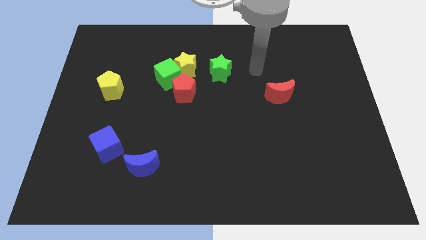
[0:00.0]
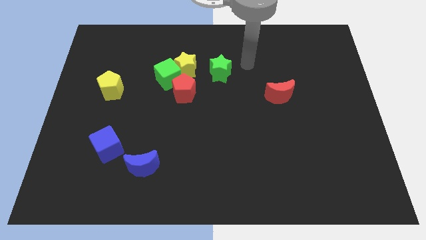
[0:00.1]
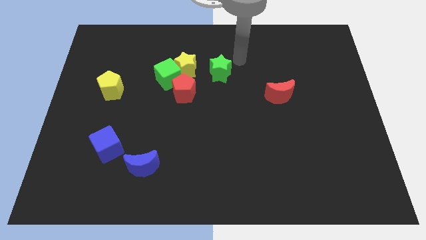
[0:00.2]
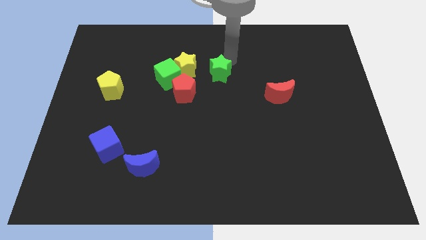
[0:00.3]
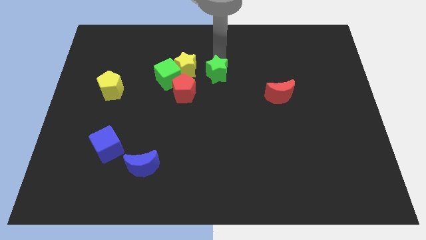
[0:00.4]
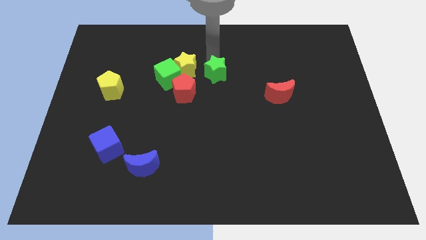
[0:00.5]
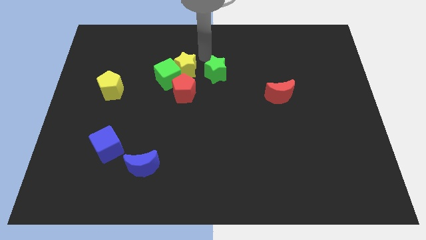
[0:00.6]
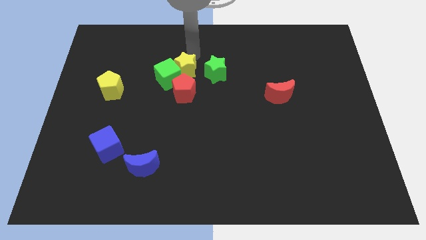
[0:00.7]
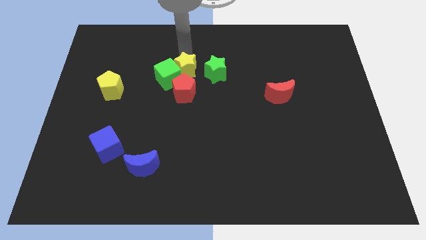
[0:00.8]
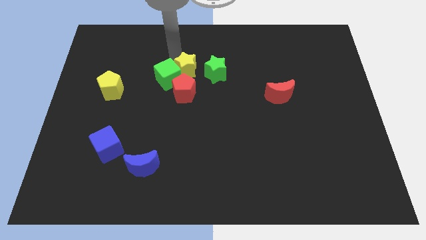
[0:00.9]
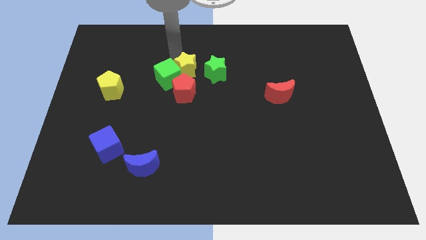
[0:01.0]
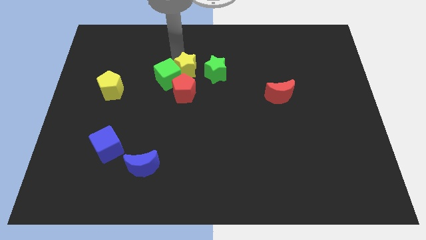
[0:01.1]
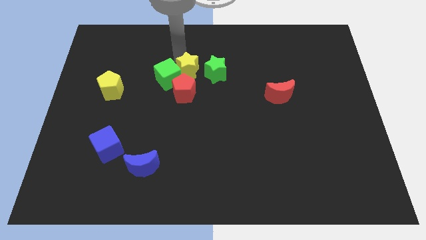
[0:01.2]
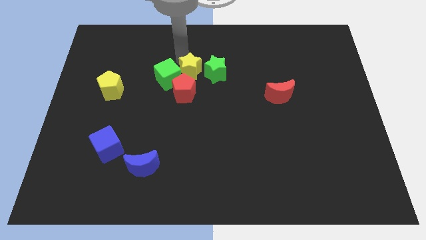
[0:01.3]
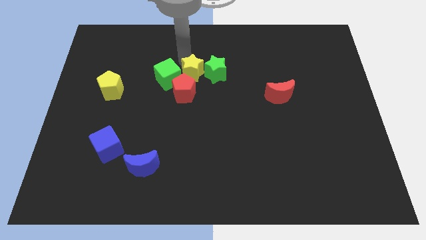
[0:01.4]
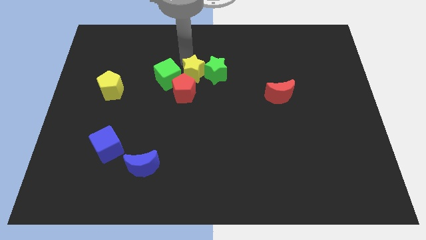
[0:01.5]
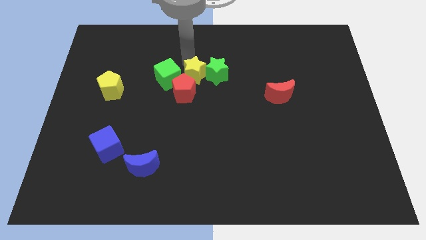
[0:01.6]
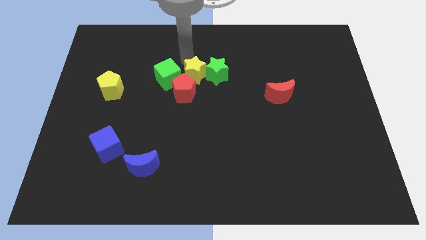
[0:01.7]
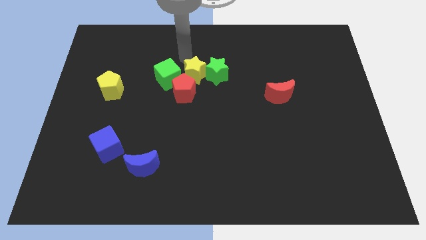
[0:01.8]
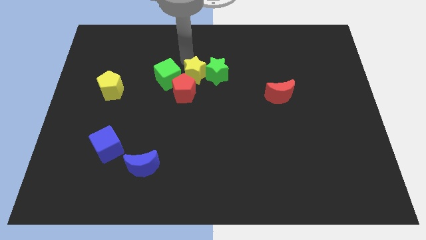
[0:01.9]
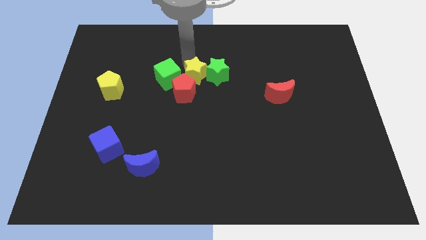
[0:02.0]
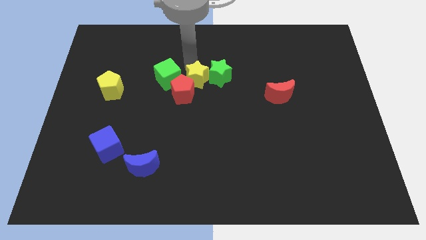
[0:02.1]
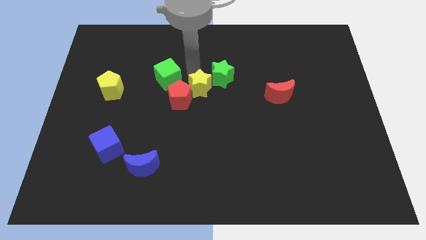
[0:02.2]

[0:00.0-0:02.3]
slightly slide the yellow star down and right diagonally

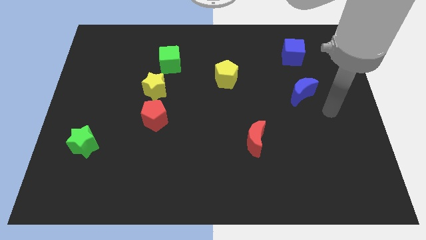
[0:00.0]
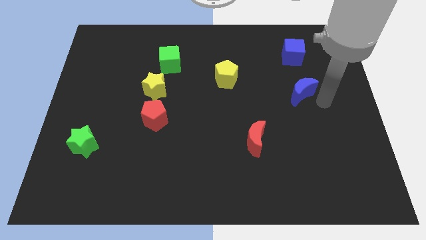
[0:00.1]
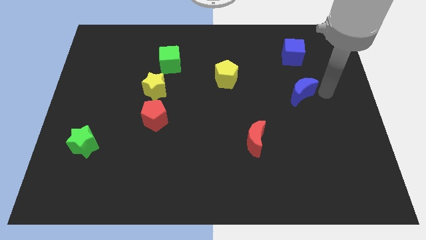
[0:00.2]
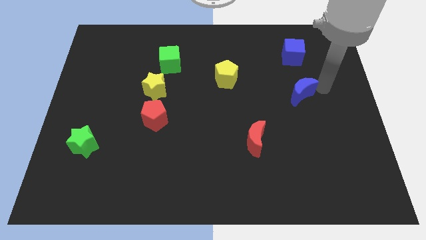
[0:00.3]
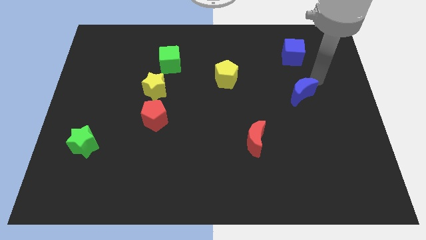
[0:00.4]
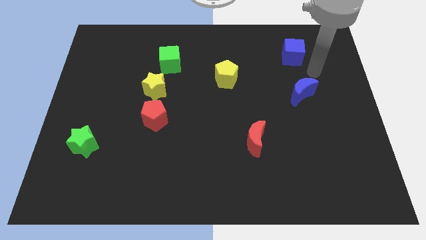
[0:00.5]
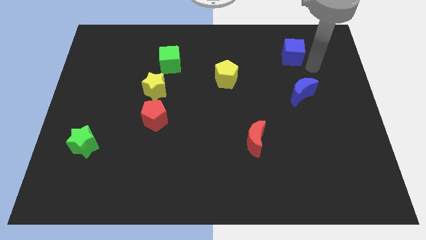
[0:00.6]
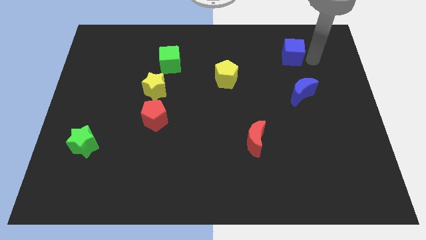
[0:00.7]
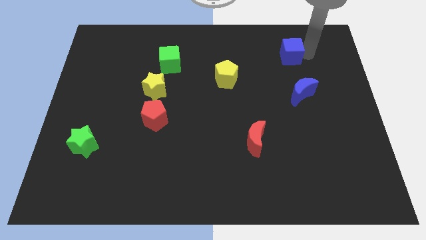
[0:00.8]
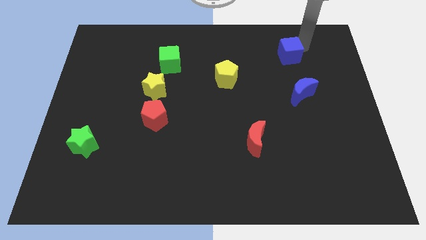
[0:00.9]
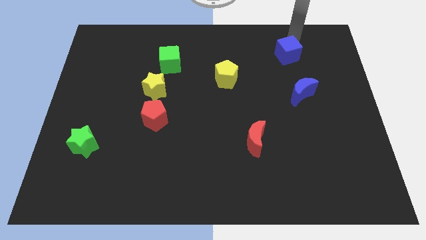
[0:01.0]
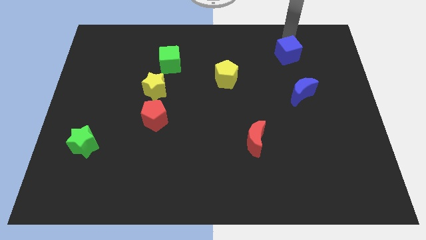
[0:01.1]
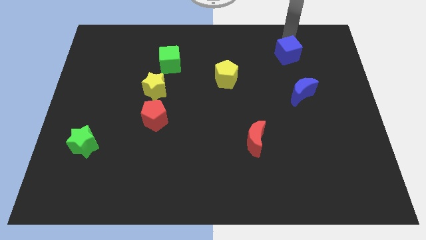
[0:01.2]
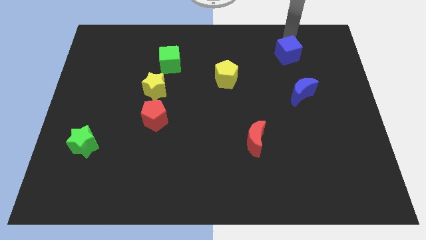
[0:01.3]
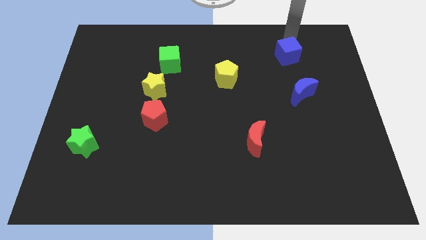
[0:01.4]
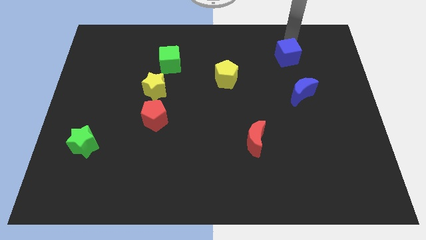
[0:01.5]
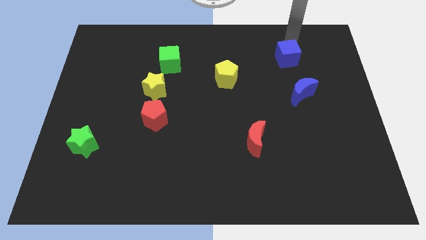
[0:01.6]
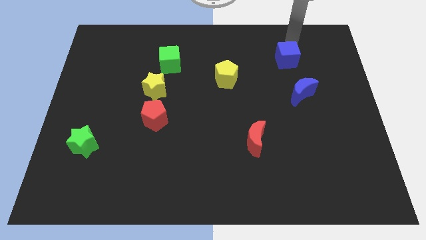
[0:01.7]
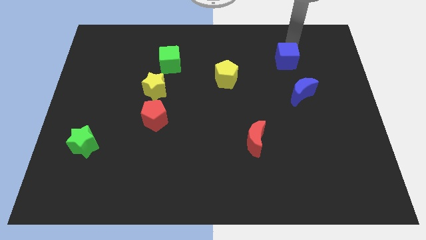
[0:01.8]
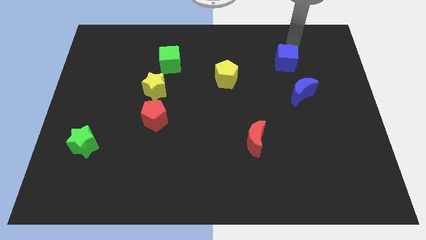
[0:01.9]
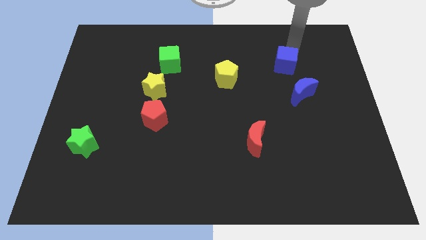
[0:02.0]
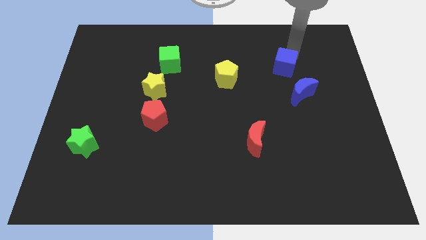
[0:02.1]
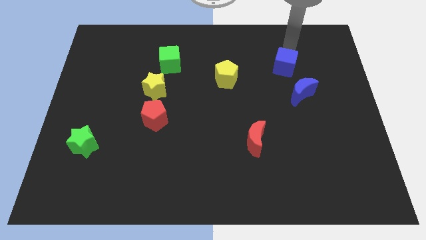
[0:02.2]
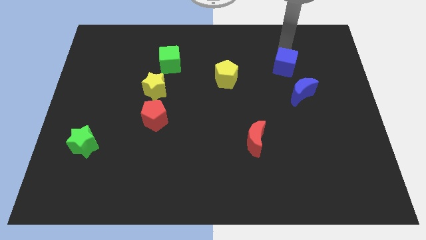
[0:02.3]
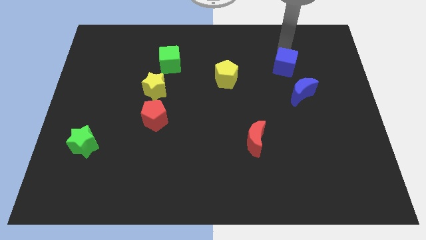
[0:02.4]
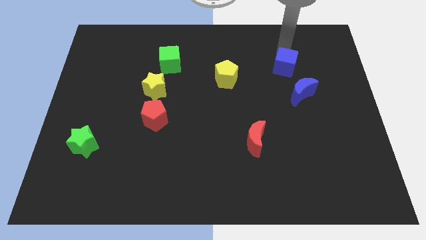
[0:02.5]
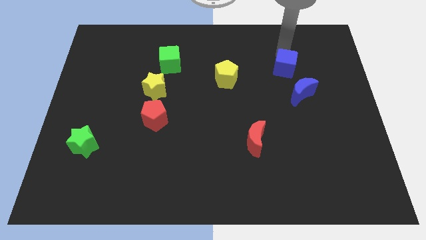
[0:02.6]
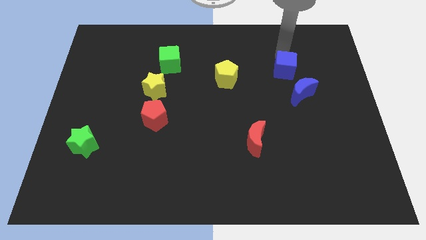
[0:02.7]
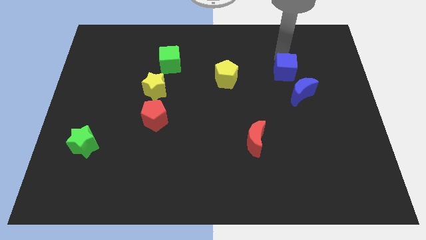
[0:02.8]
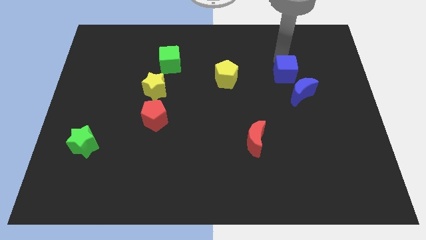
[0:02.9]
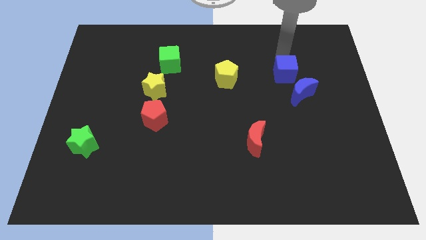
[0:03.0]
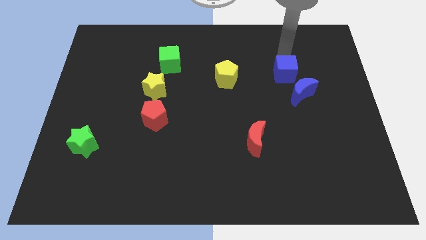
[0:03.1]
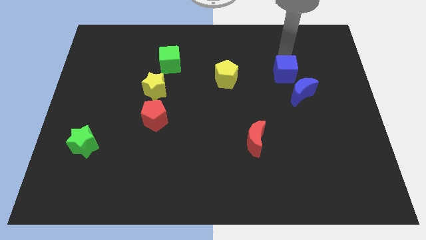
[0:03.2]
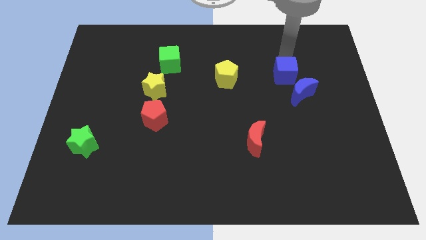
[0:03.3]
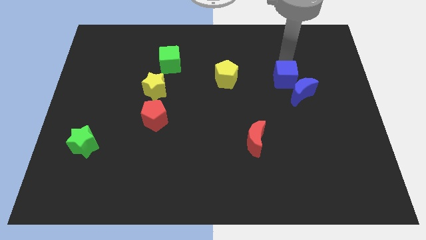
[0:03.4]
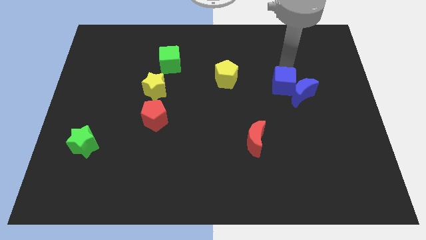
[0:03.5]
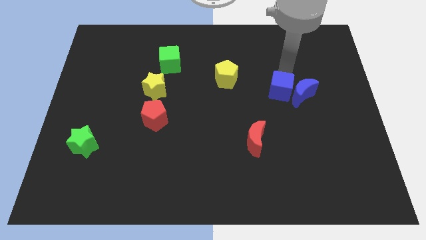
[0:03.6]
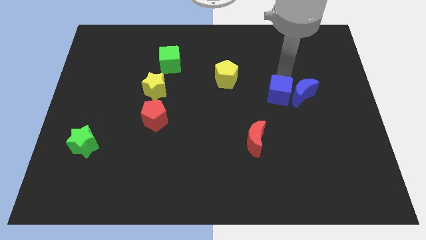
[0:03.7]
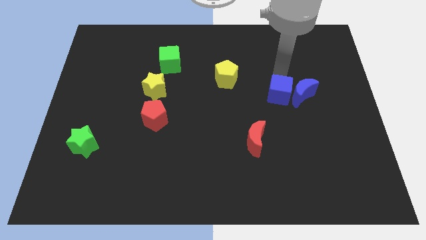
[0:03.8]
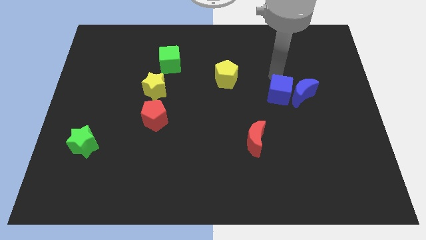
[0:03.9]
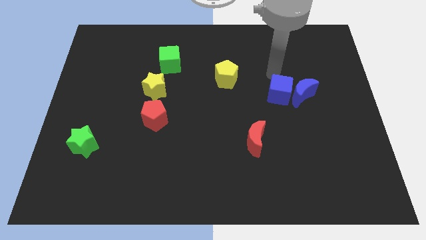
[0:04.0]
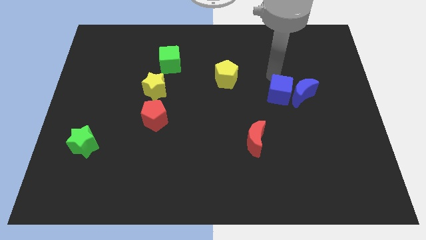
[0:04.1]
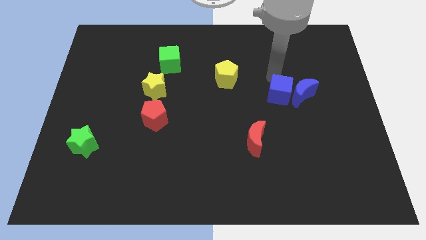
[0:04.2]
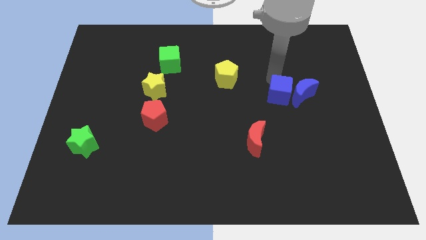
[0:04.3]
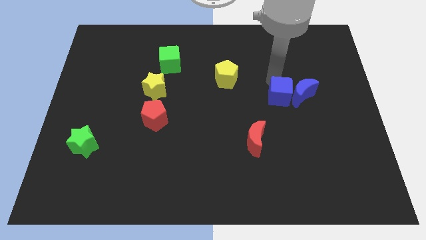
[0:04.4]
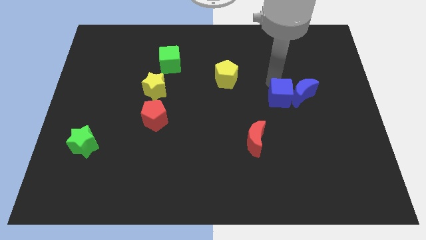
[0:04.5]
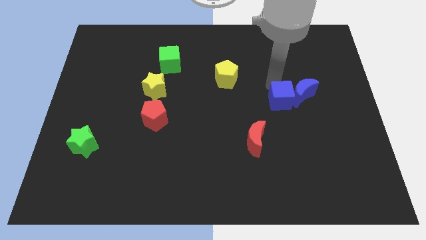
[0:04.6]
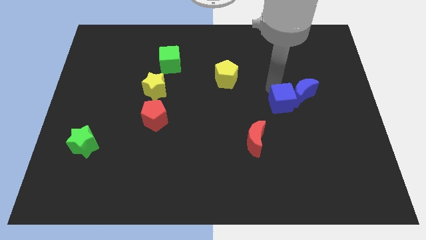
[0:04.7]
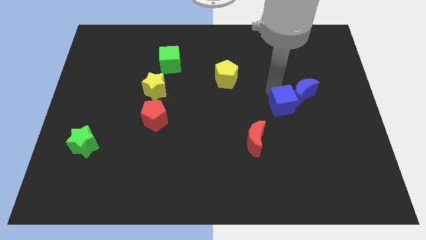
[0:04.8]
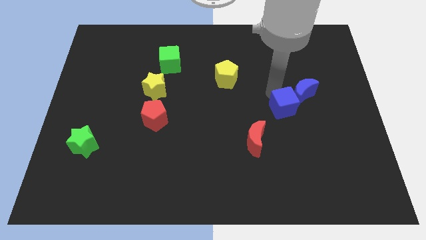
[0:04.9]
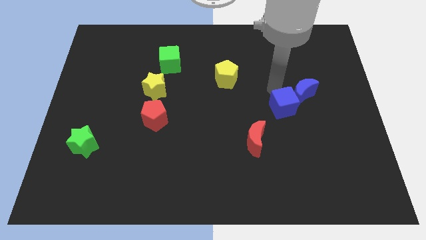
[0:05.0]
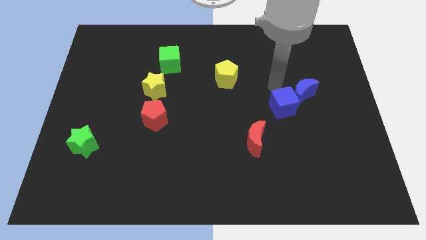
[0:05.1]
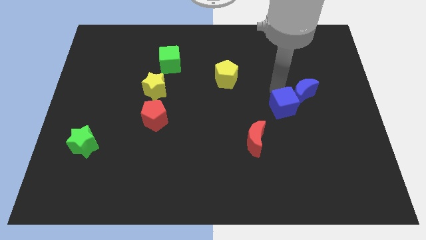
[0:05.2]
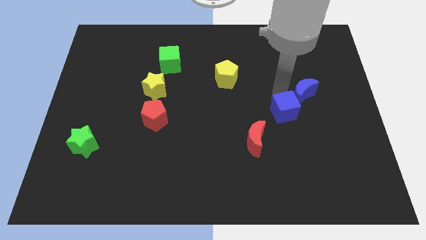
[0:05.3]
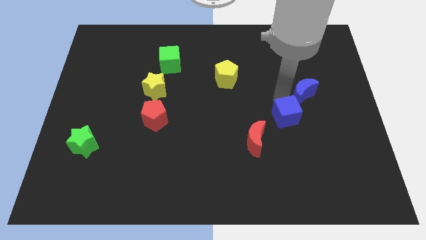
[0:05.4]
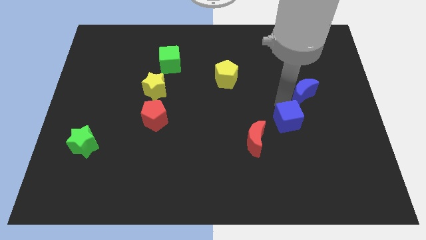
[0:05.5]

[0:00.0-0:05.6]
push the blue cube down

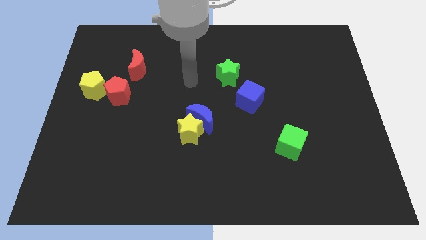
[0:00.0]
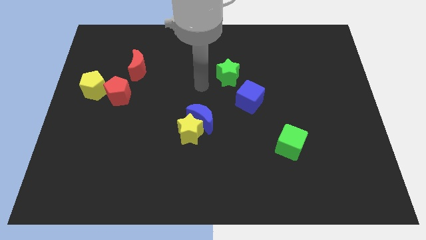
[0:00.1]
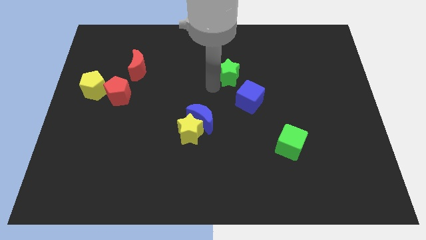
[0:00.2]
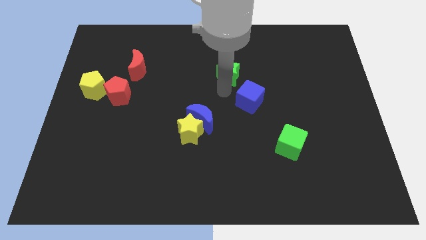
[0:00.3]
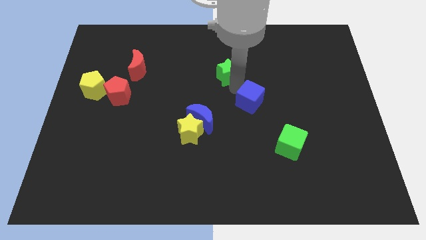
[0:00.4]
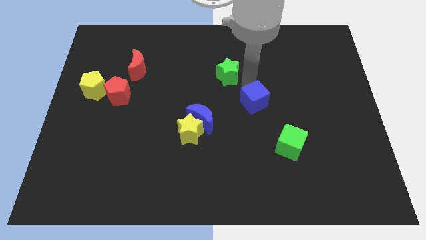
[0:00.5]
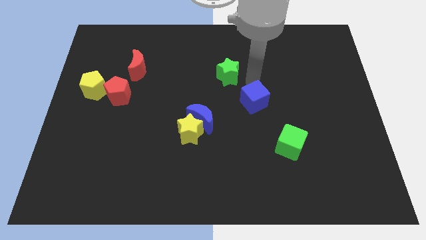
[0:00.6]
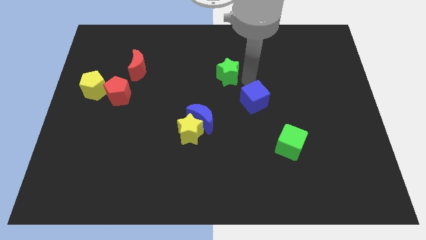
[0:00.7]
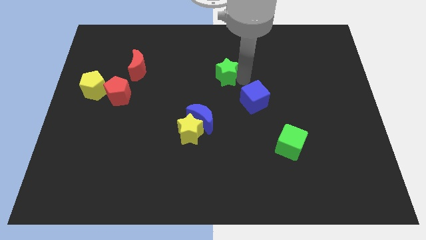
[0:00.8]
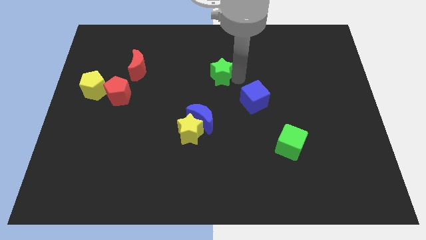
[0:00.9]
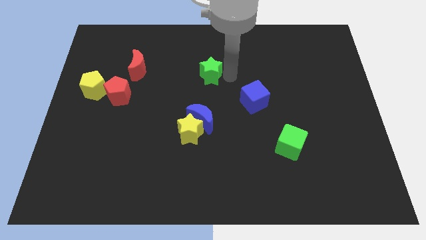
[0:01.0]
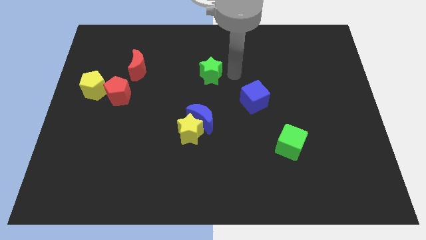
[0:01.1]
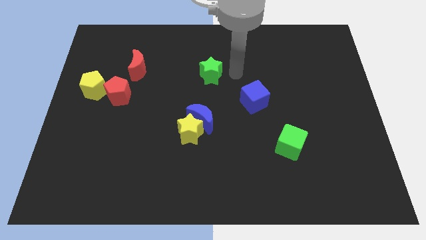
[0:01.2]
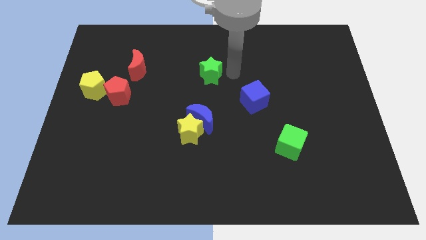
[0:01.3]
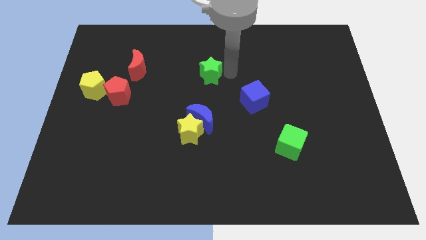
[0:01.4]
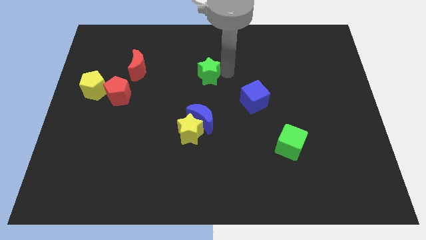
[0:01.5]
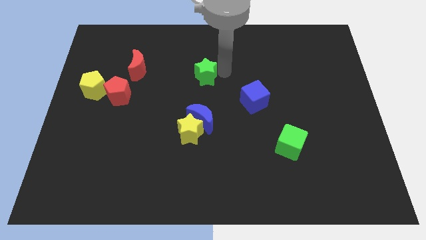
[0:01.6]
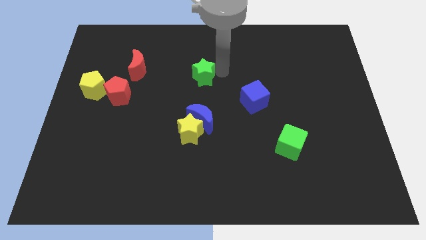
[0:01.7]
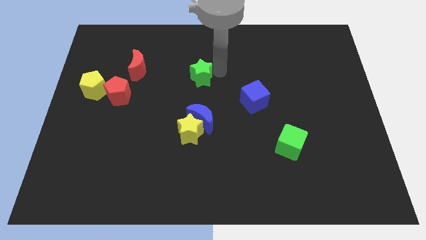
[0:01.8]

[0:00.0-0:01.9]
slightly slide the green star left
